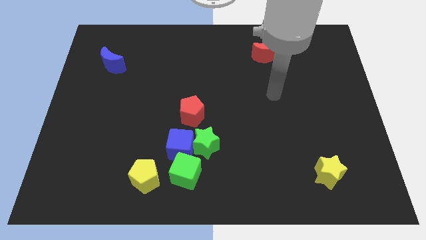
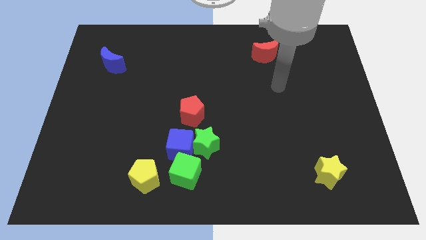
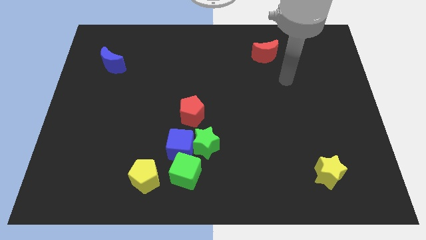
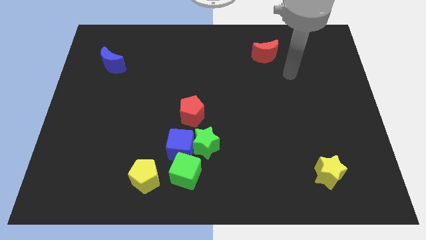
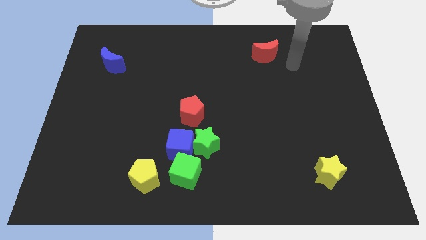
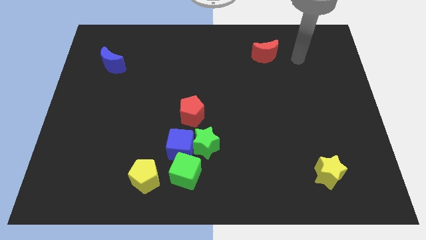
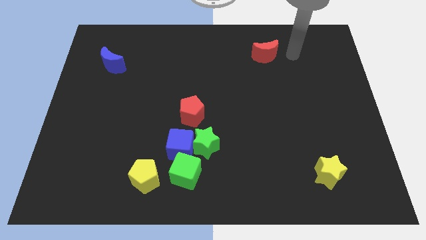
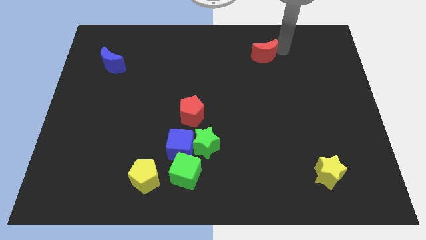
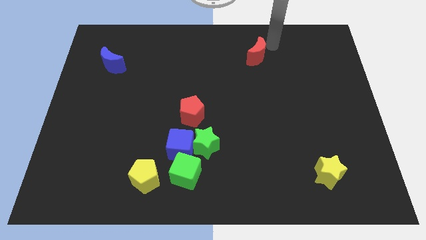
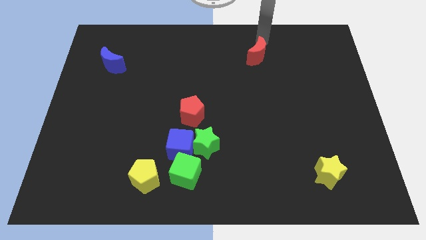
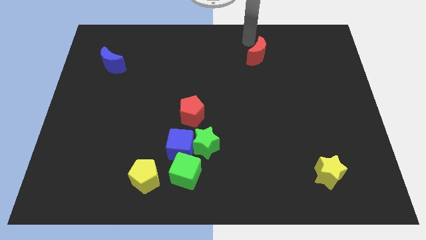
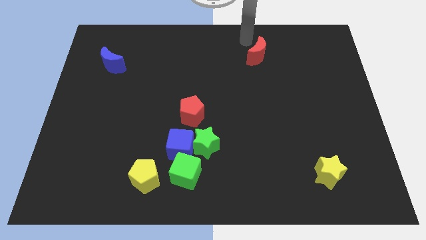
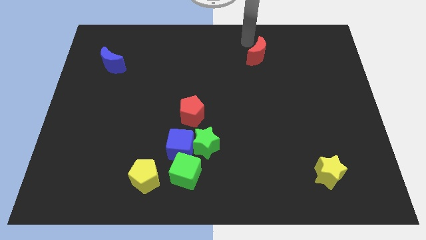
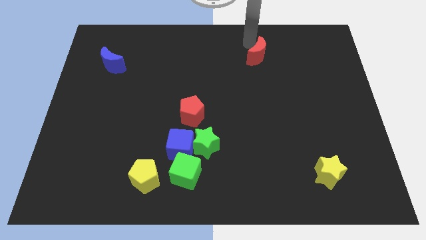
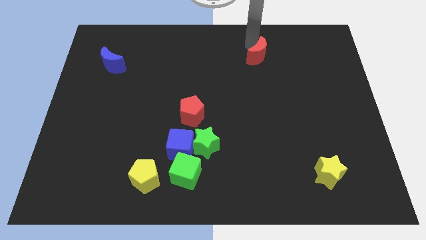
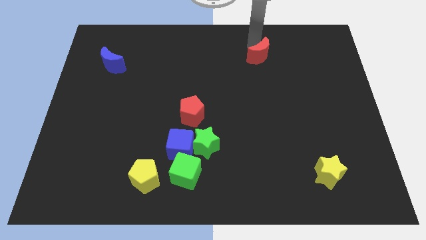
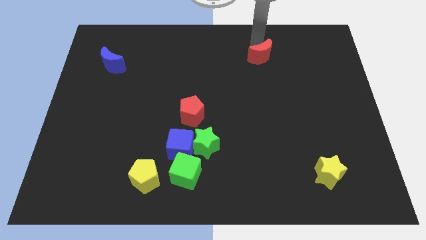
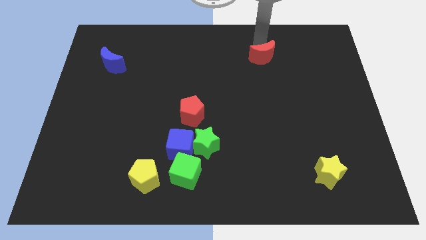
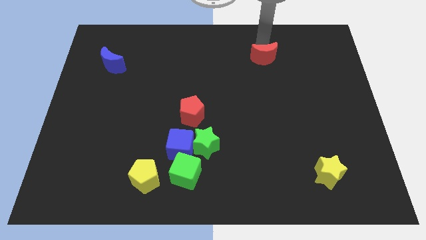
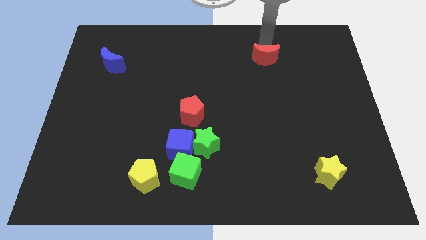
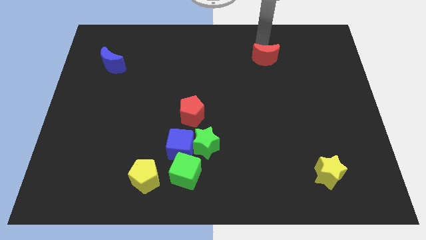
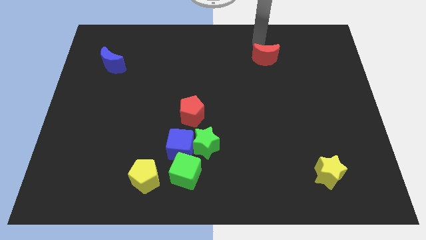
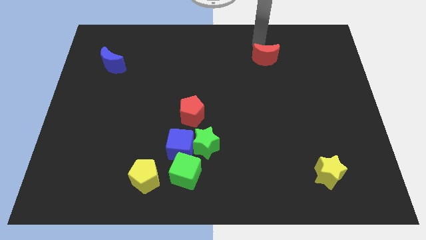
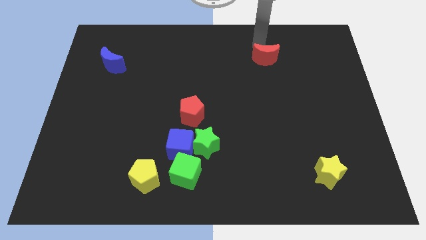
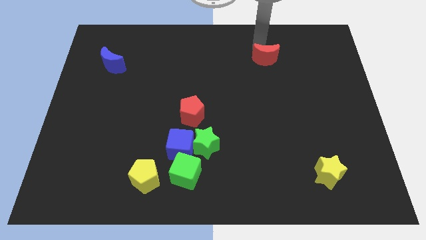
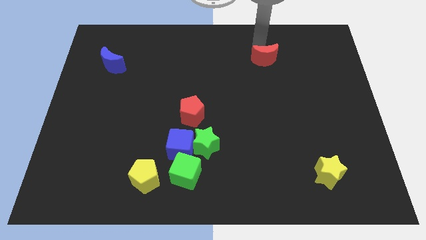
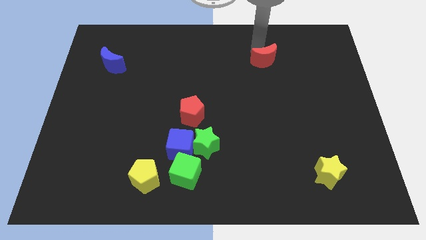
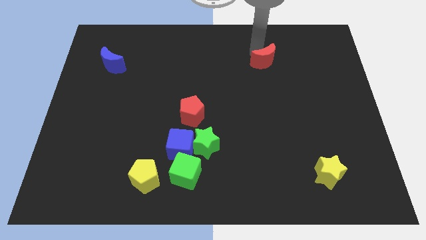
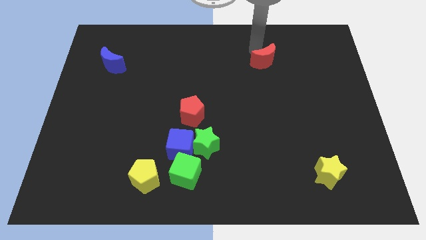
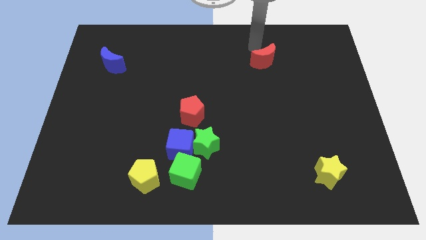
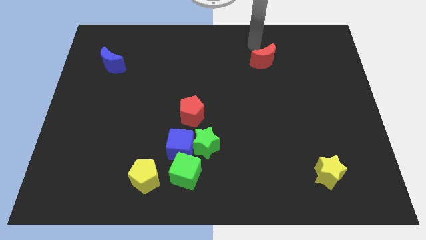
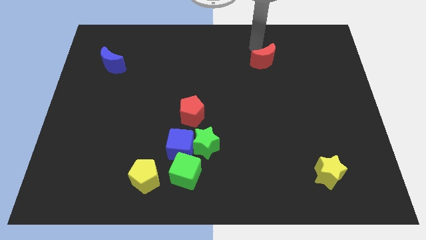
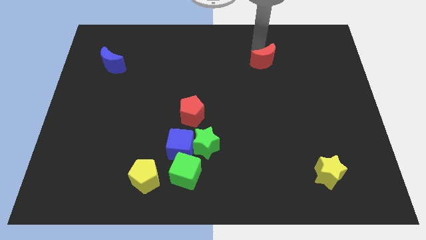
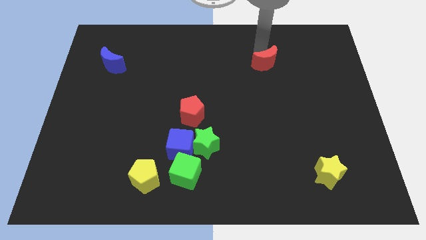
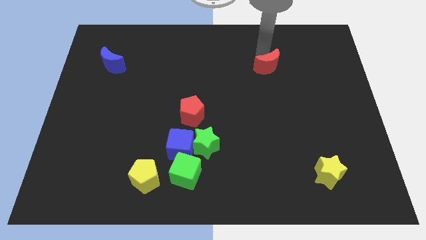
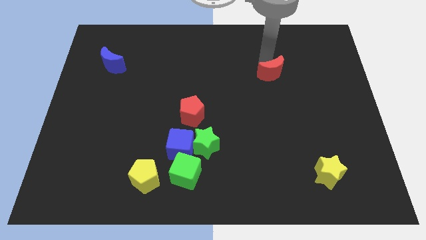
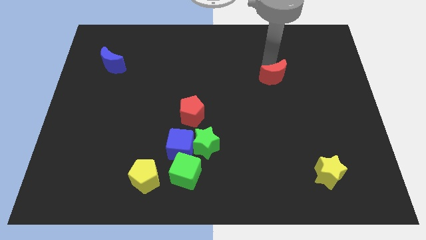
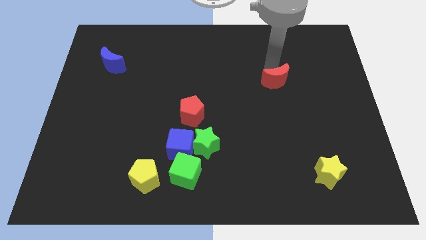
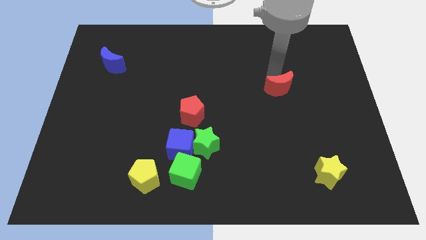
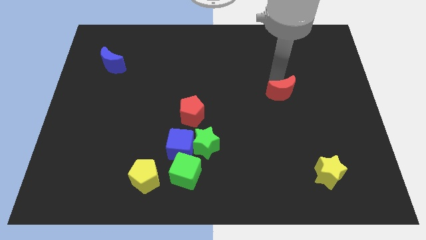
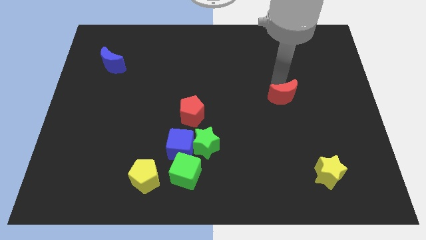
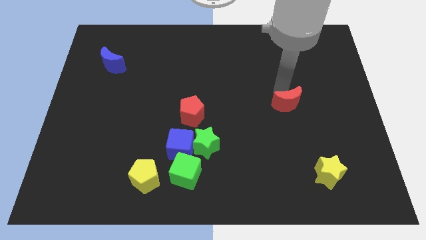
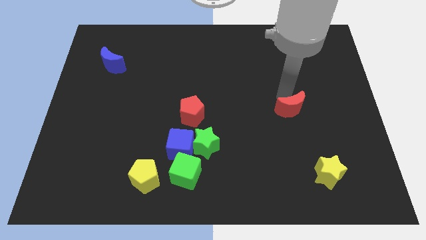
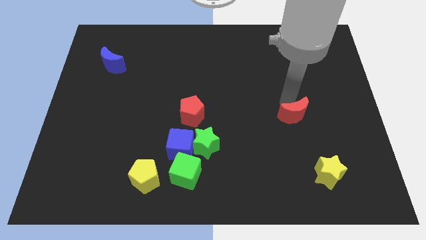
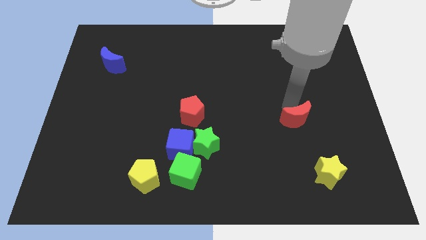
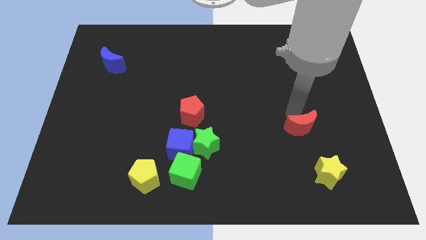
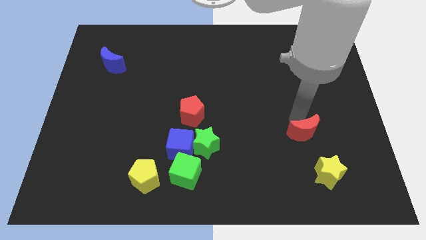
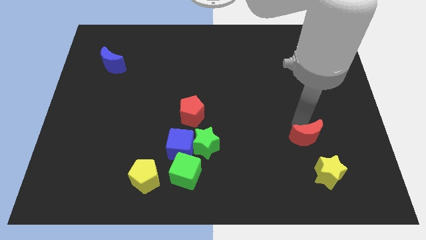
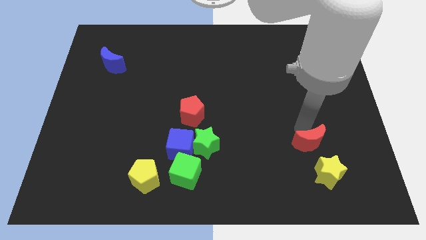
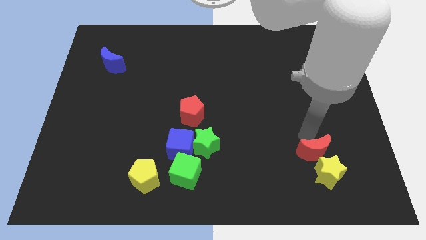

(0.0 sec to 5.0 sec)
slide the red moon towards the yellow star

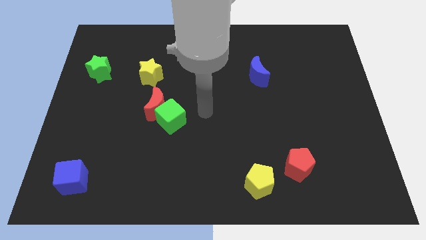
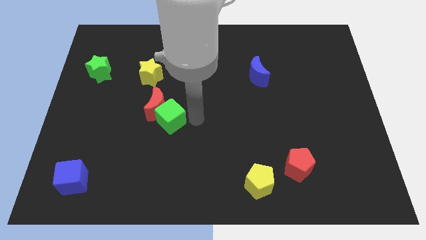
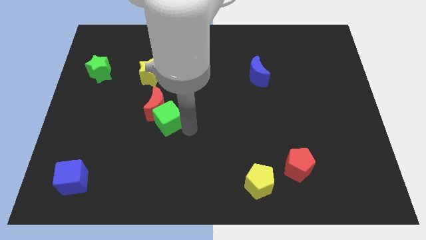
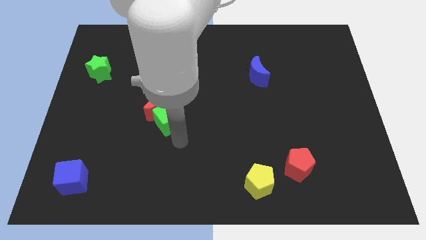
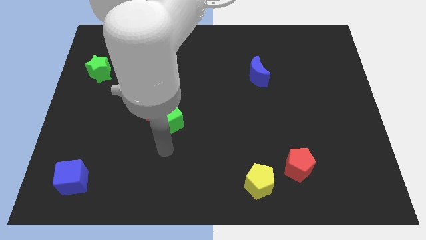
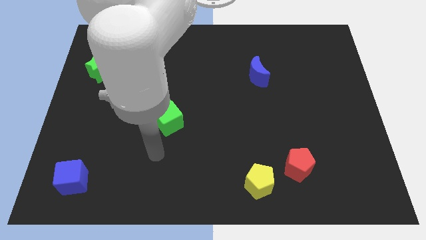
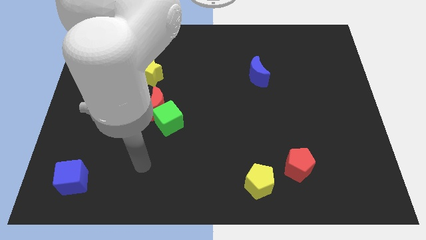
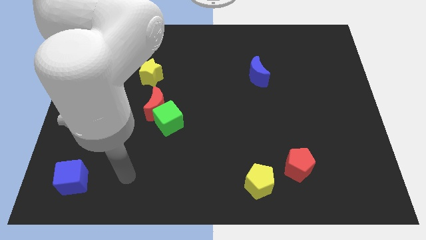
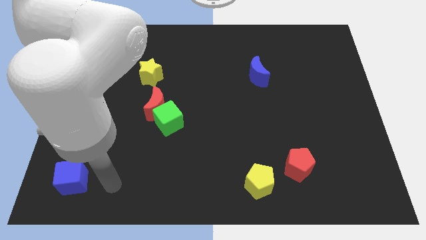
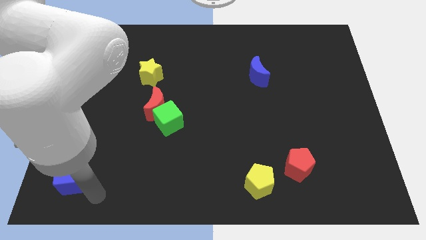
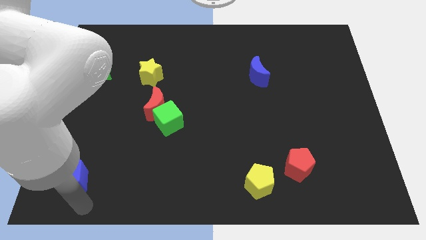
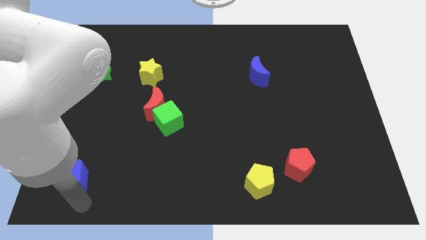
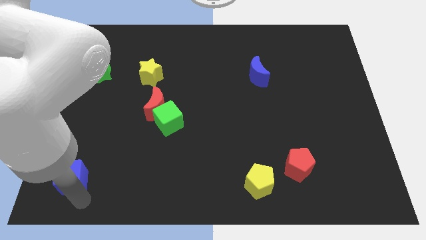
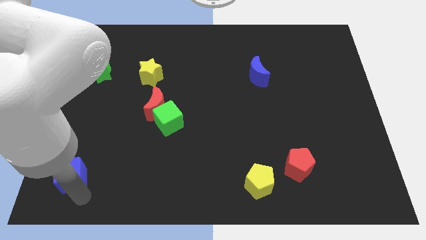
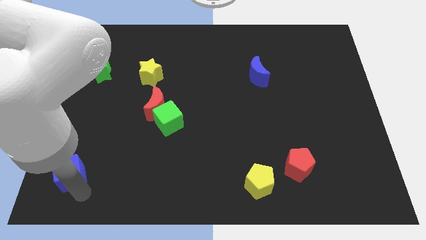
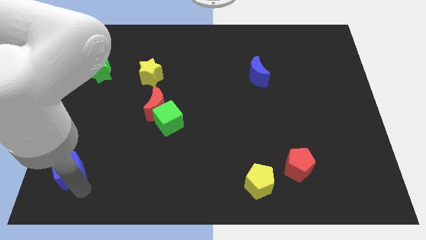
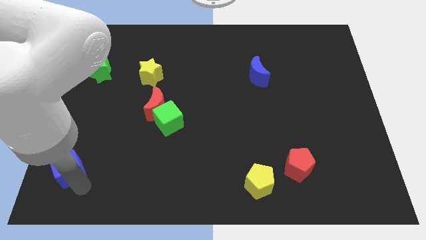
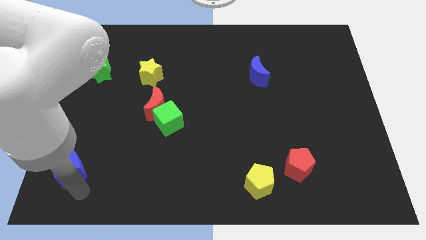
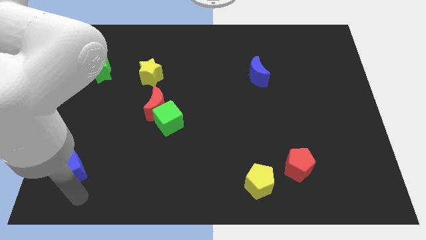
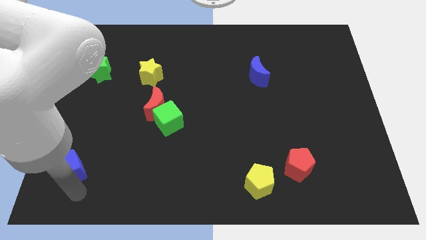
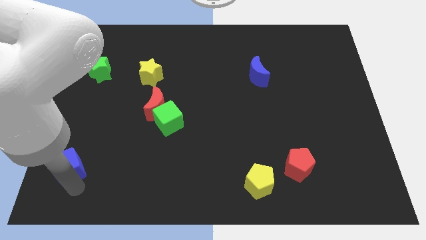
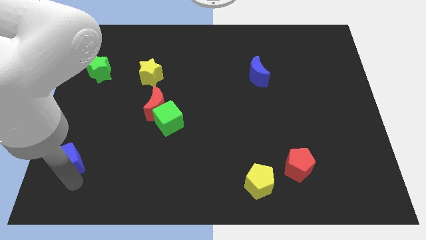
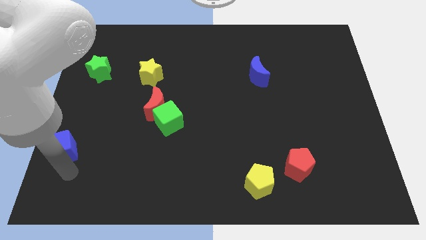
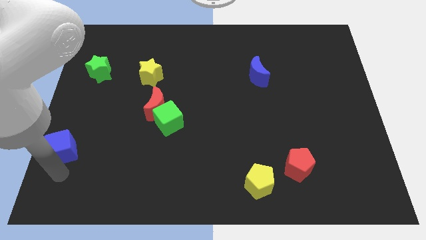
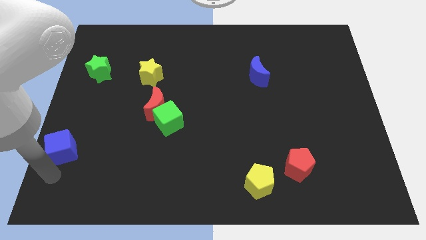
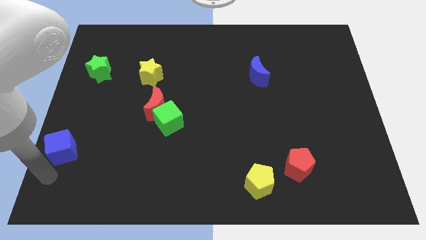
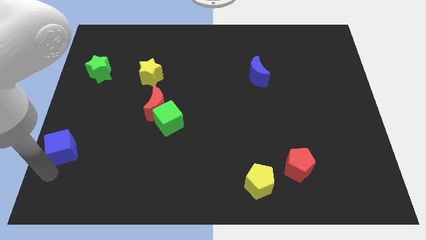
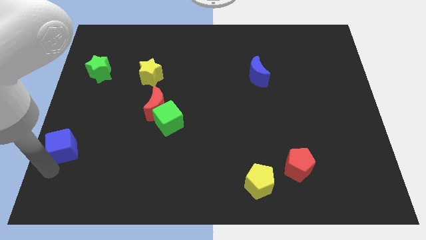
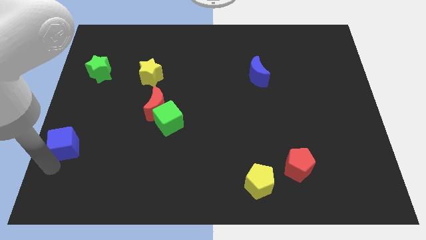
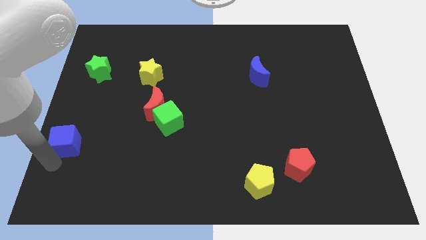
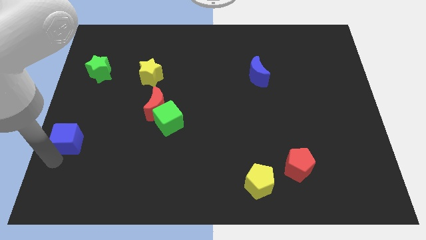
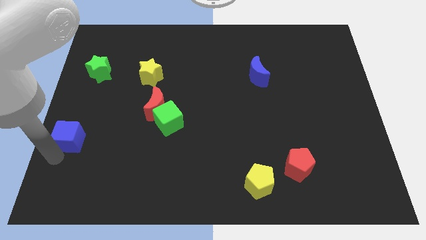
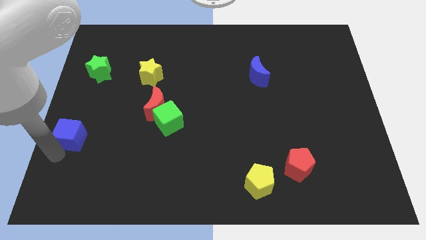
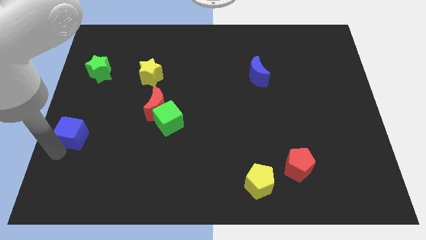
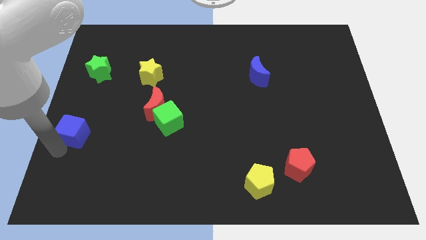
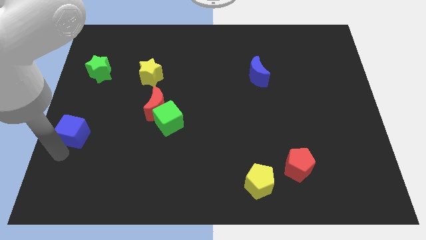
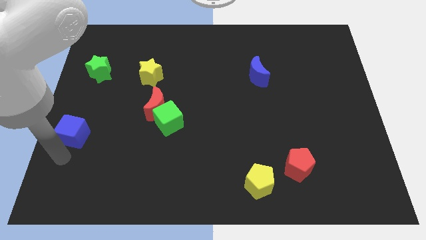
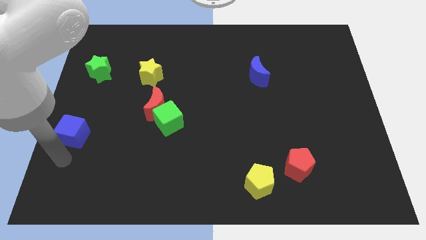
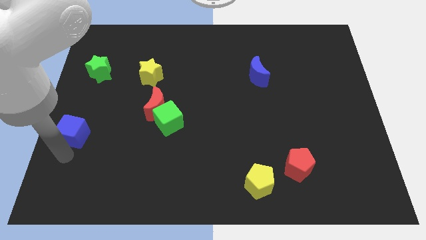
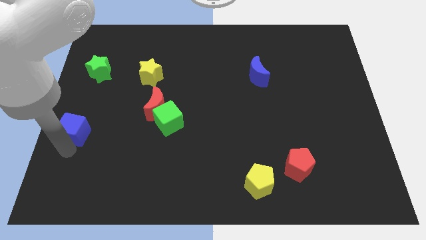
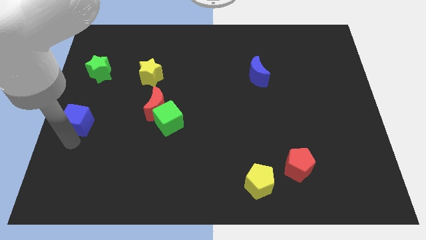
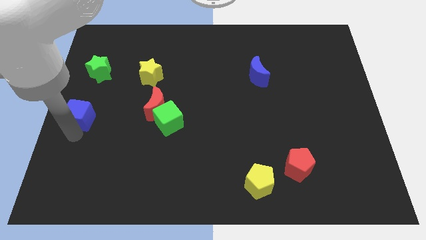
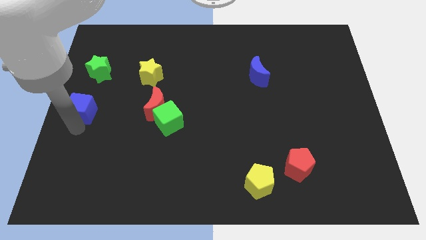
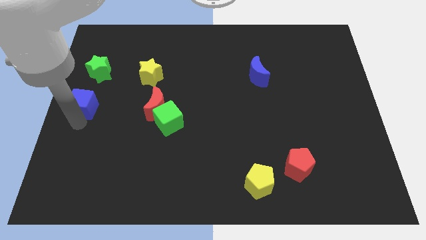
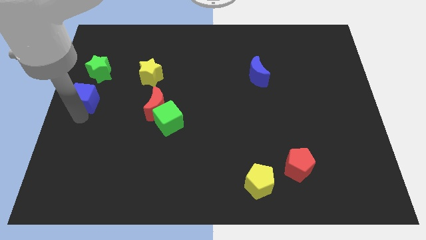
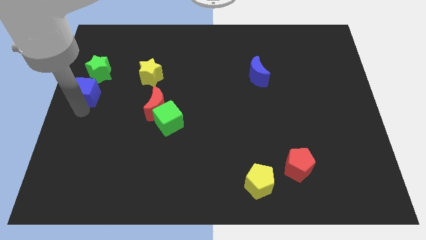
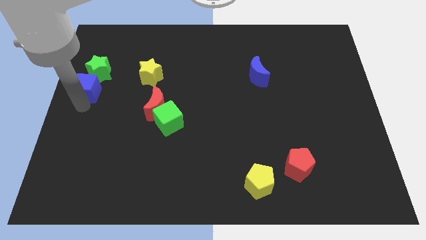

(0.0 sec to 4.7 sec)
put the blue cube towards the green star
